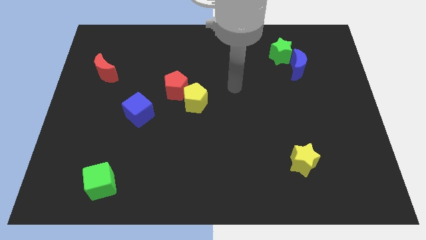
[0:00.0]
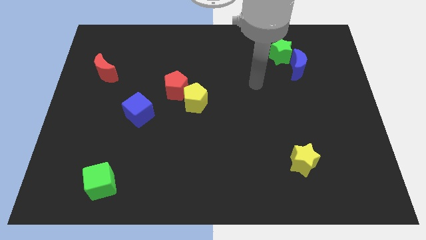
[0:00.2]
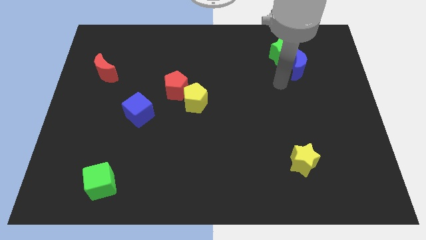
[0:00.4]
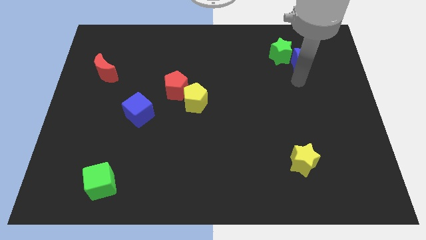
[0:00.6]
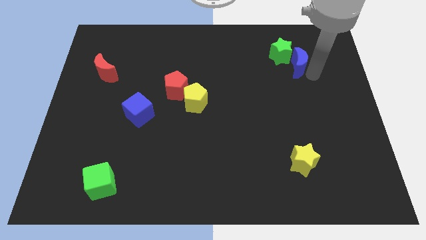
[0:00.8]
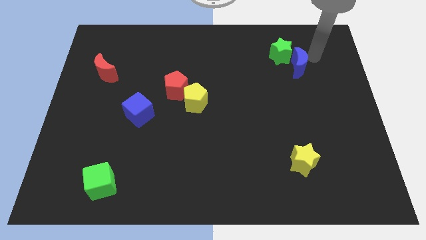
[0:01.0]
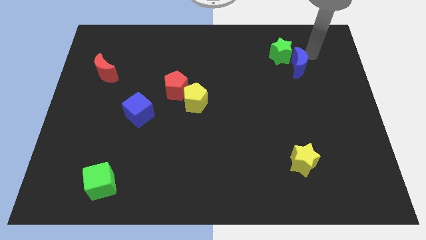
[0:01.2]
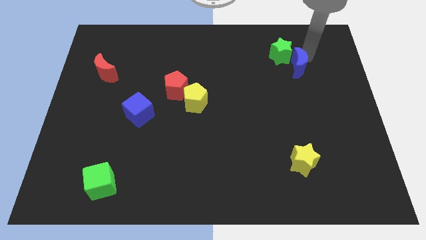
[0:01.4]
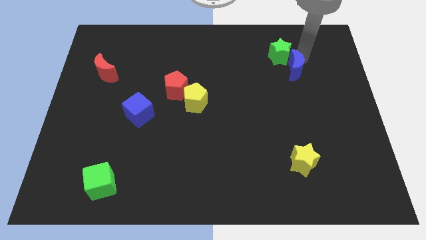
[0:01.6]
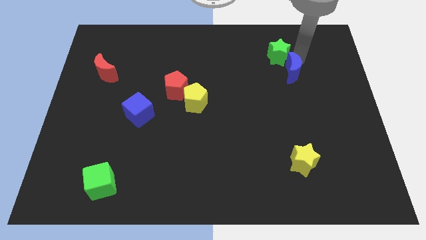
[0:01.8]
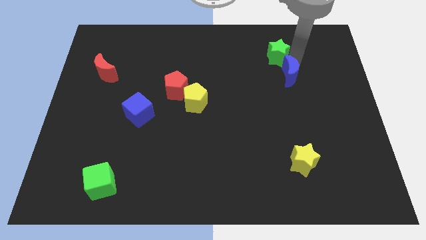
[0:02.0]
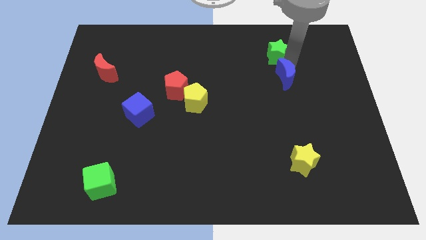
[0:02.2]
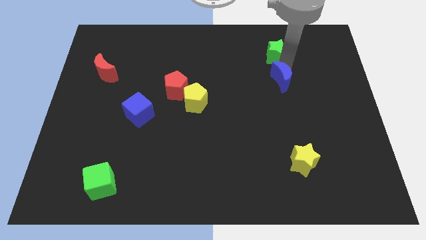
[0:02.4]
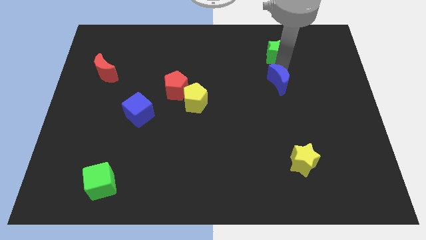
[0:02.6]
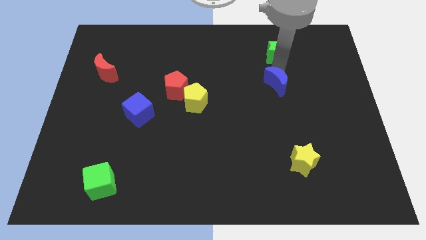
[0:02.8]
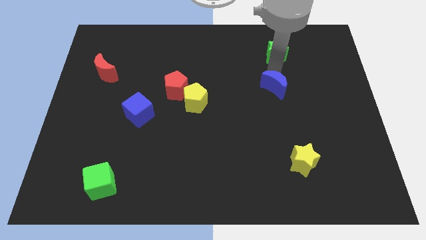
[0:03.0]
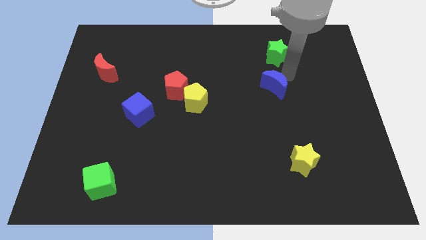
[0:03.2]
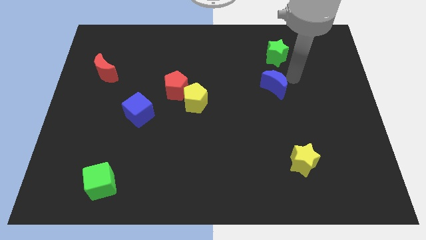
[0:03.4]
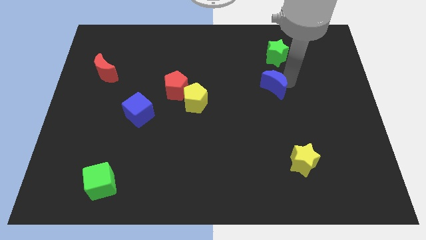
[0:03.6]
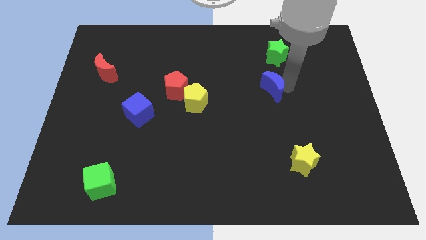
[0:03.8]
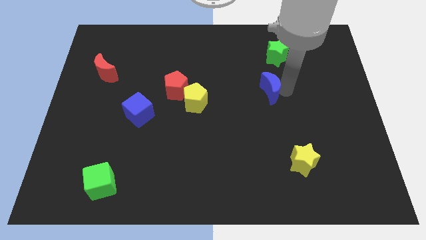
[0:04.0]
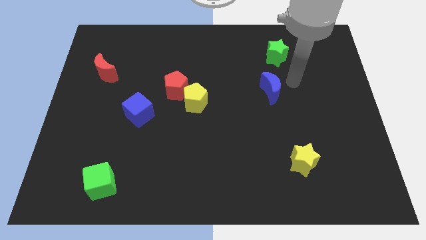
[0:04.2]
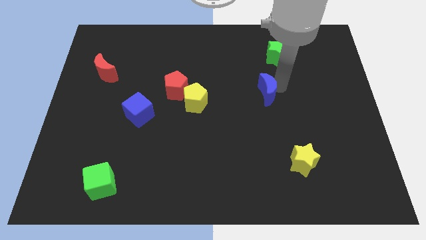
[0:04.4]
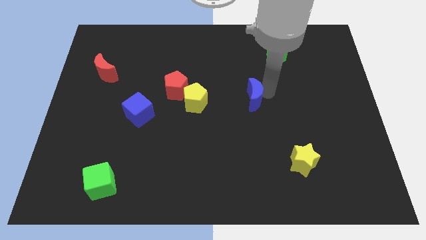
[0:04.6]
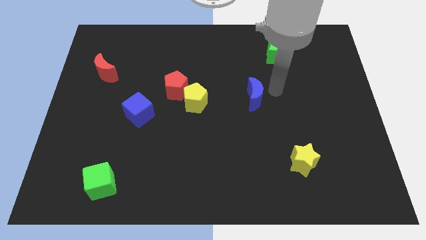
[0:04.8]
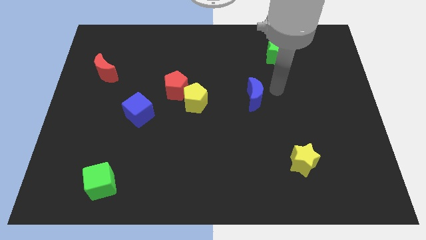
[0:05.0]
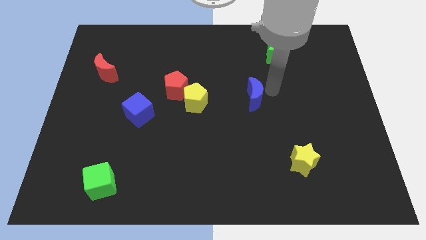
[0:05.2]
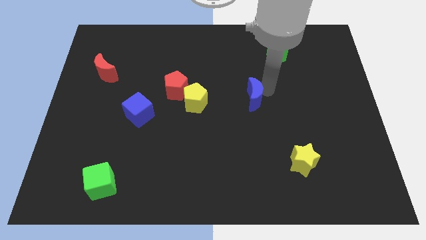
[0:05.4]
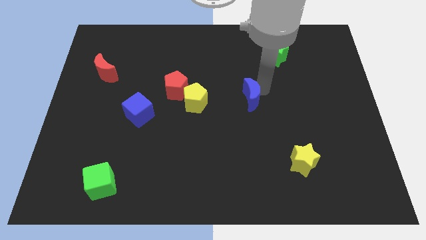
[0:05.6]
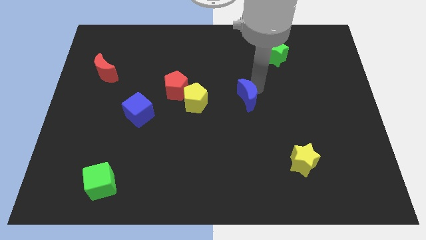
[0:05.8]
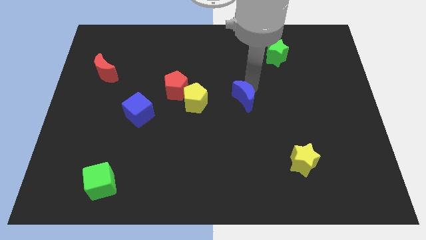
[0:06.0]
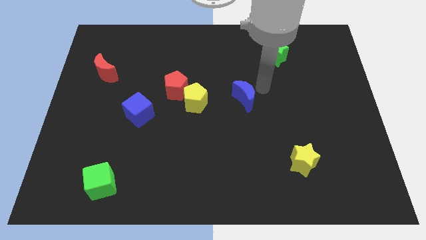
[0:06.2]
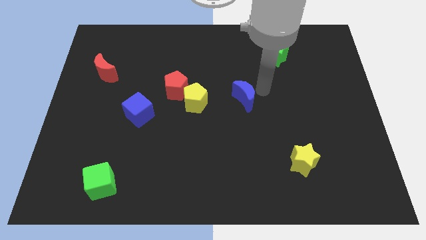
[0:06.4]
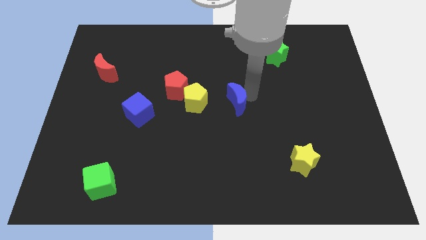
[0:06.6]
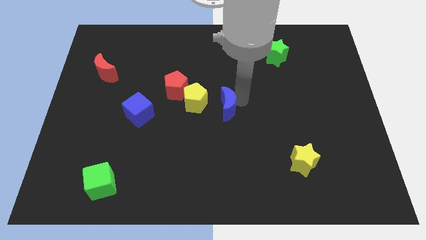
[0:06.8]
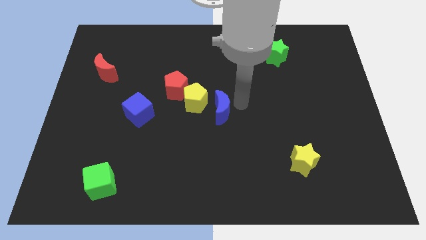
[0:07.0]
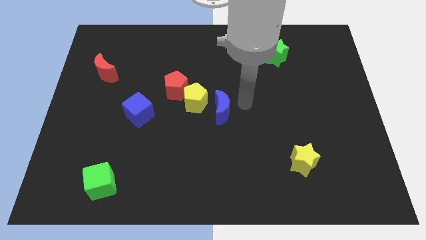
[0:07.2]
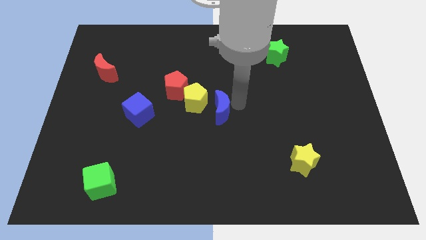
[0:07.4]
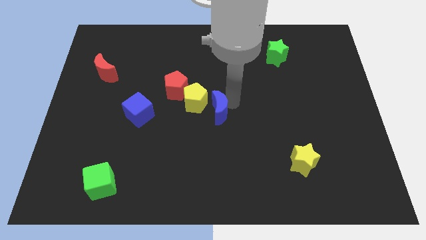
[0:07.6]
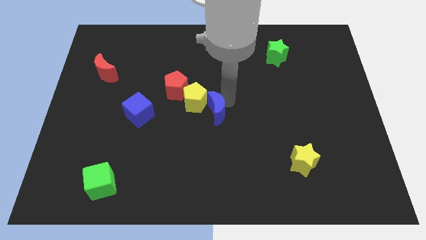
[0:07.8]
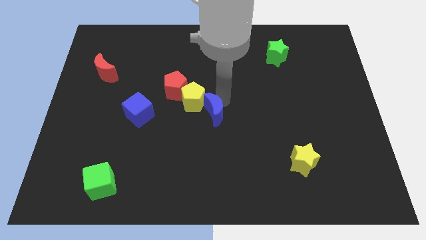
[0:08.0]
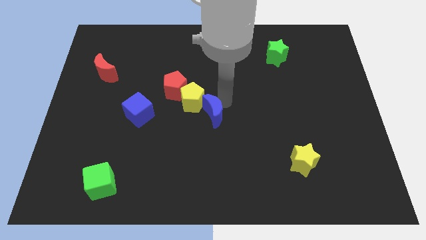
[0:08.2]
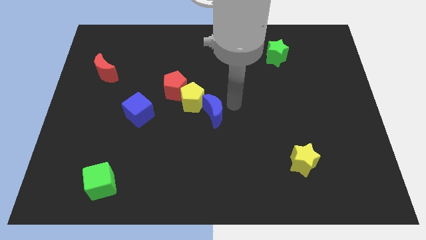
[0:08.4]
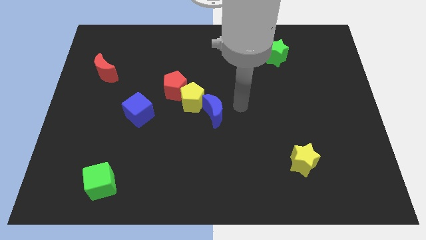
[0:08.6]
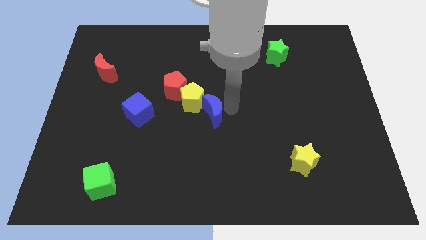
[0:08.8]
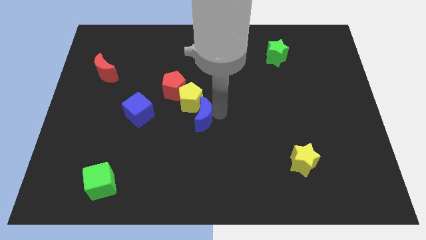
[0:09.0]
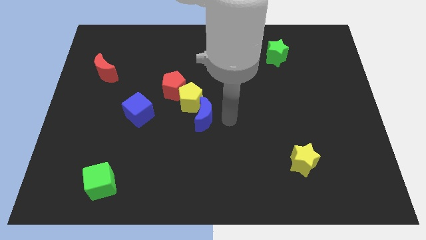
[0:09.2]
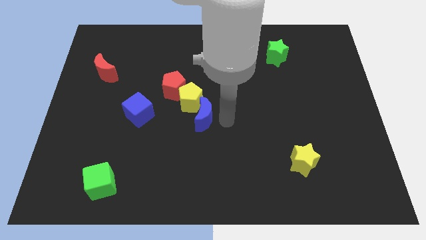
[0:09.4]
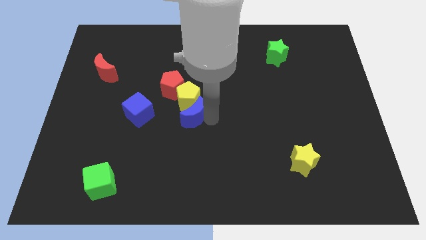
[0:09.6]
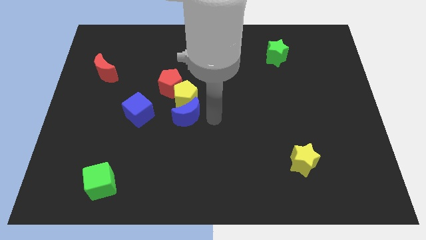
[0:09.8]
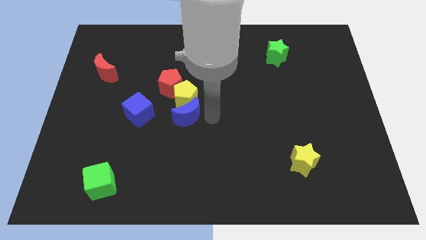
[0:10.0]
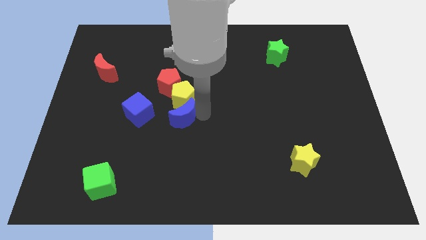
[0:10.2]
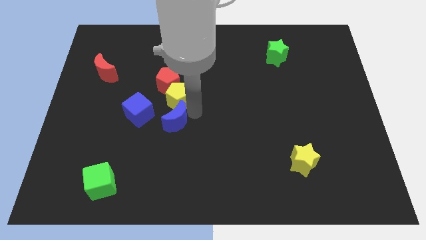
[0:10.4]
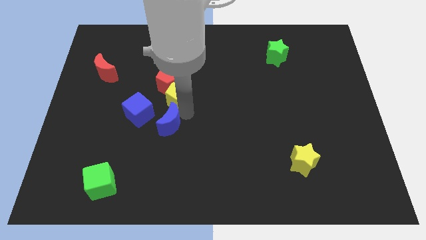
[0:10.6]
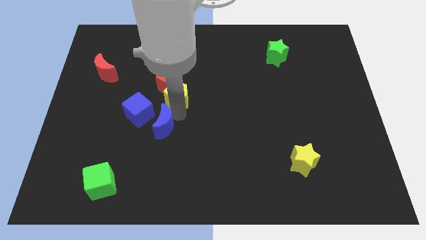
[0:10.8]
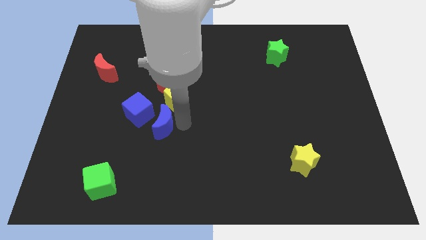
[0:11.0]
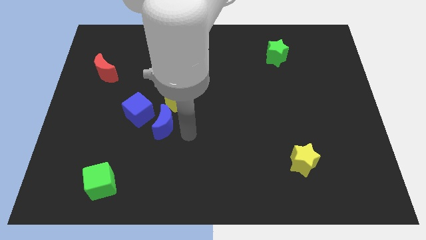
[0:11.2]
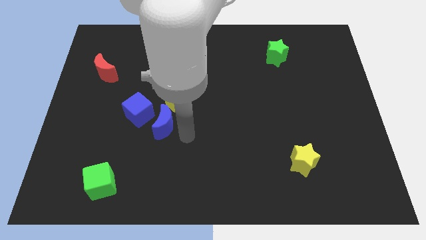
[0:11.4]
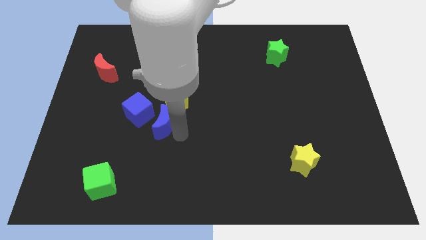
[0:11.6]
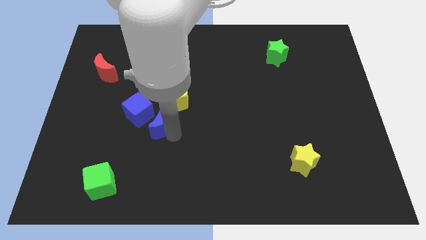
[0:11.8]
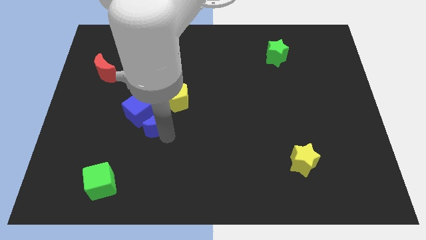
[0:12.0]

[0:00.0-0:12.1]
slide the blue moon to the blue cube
